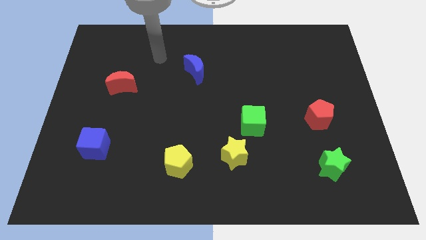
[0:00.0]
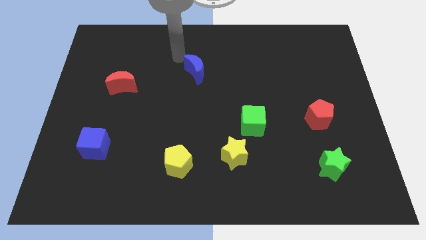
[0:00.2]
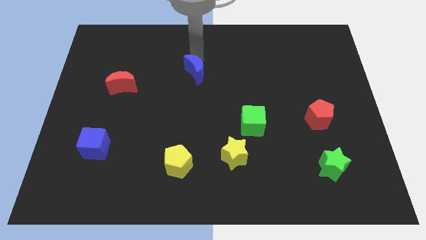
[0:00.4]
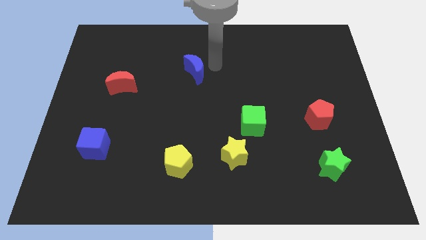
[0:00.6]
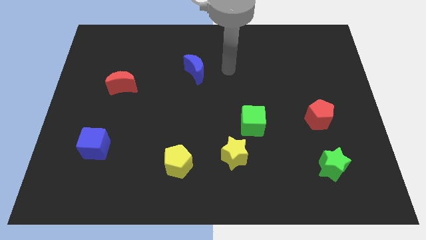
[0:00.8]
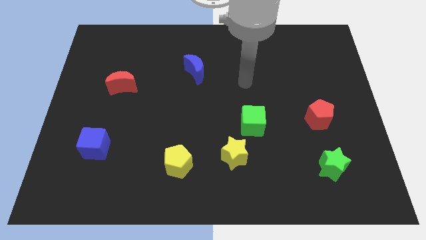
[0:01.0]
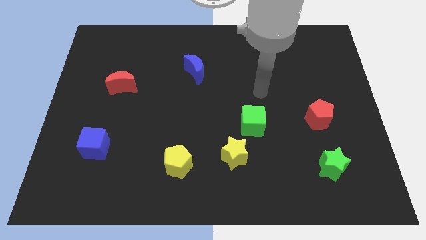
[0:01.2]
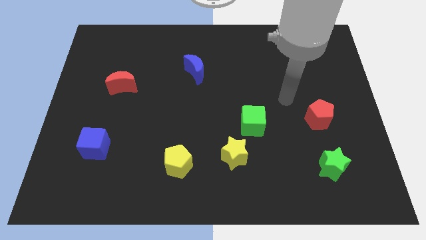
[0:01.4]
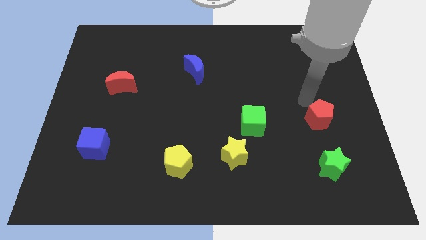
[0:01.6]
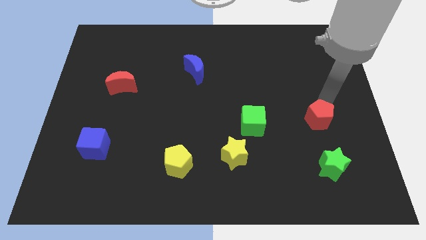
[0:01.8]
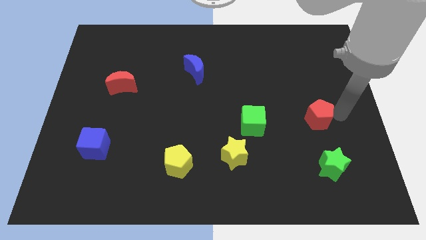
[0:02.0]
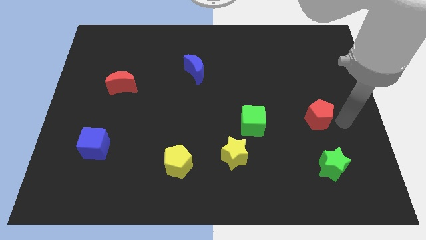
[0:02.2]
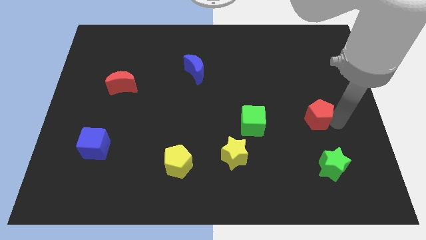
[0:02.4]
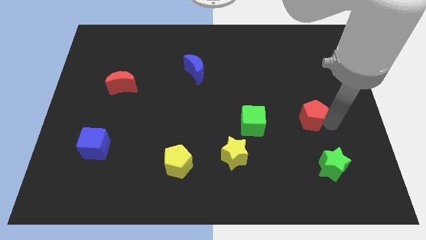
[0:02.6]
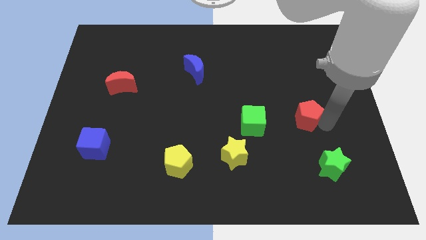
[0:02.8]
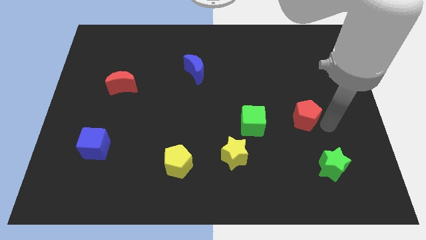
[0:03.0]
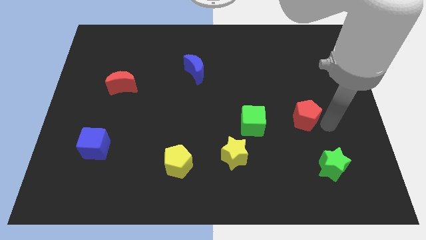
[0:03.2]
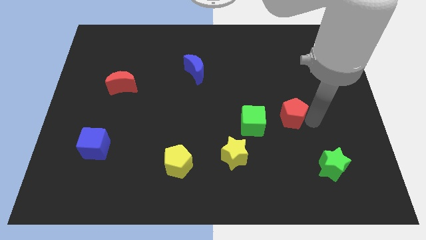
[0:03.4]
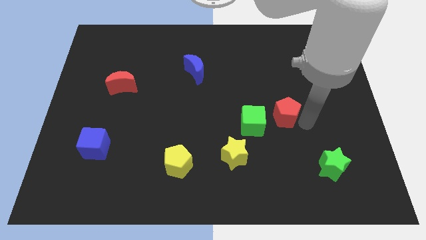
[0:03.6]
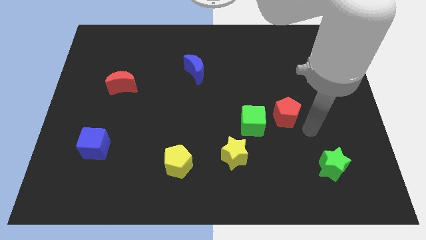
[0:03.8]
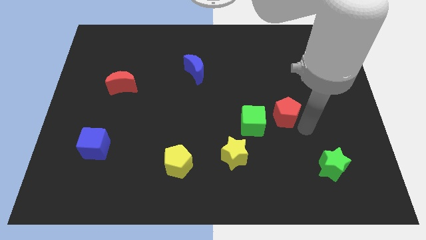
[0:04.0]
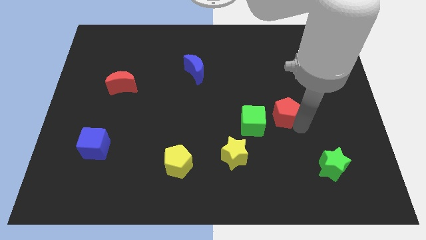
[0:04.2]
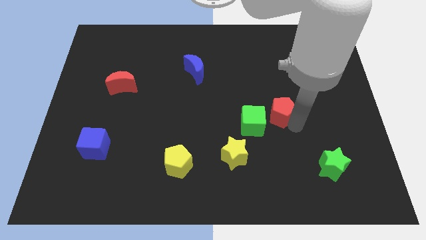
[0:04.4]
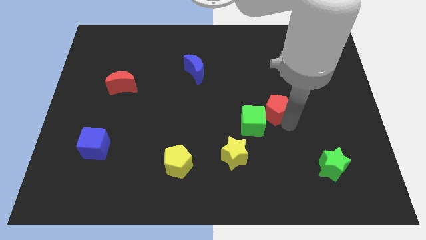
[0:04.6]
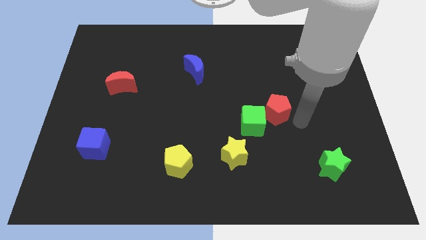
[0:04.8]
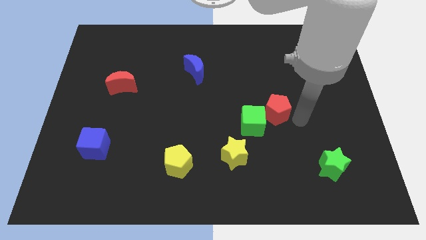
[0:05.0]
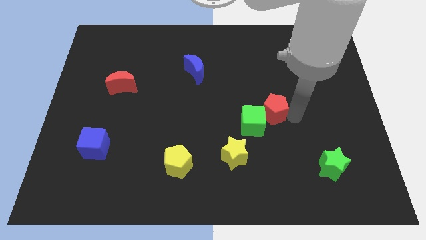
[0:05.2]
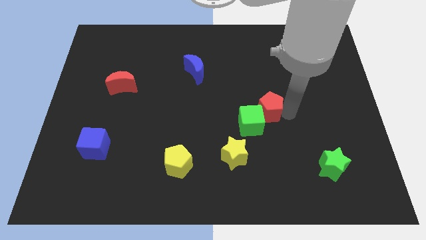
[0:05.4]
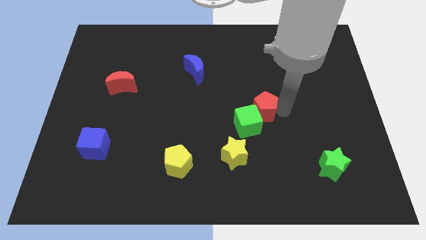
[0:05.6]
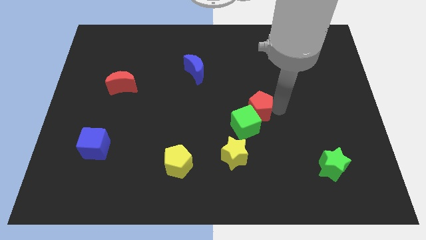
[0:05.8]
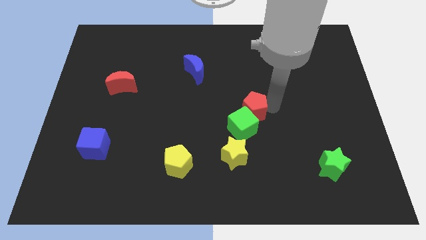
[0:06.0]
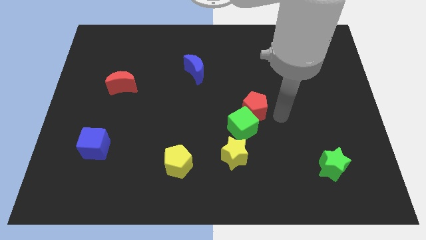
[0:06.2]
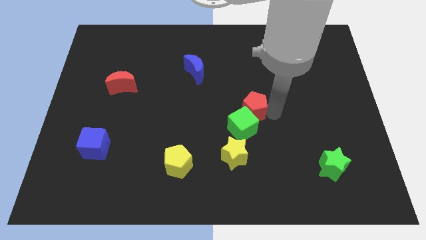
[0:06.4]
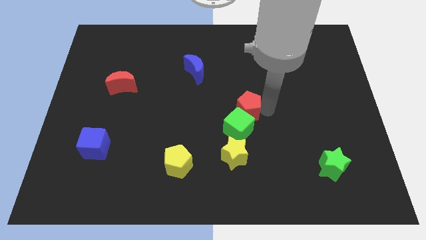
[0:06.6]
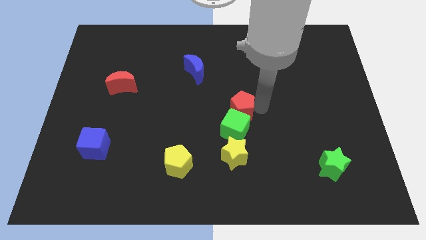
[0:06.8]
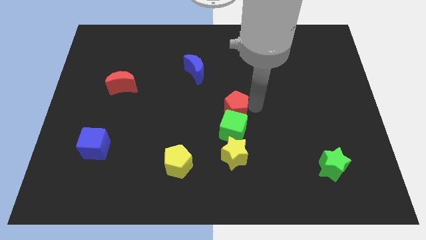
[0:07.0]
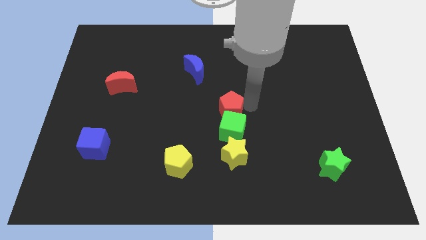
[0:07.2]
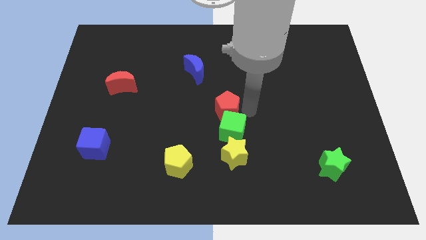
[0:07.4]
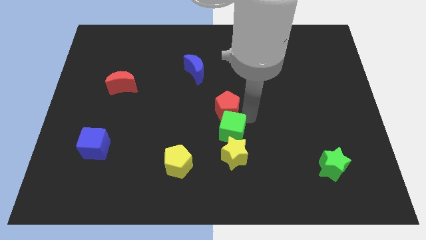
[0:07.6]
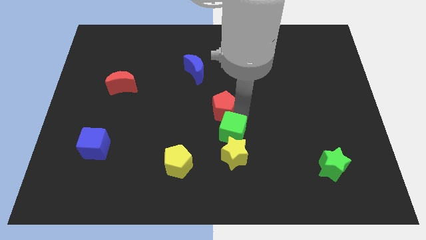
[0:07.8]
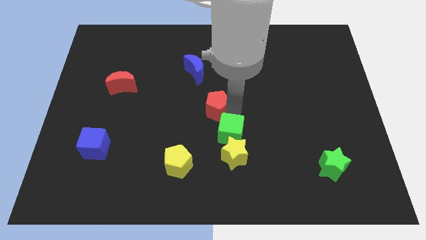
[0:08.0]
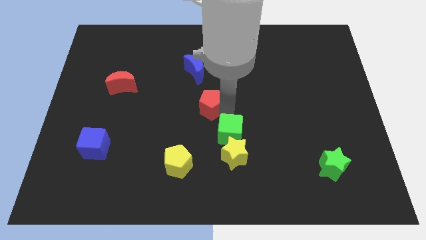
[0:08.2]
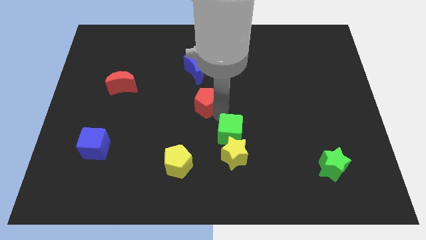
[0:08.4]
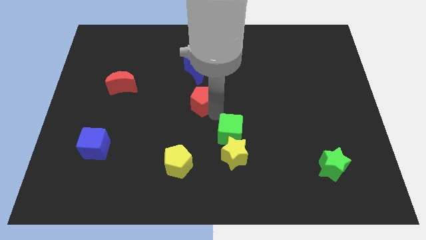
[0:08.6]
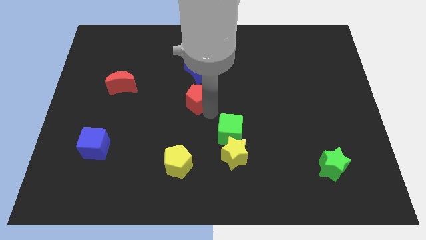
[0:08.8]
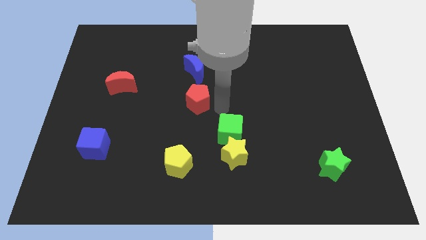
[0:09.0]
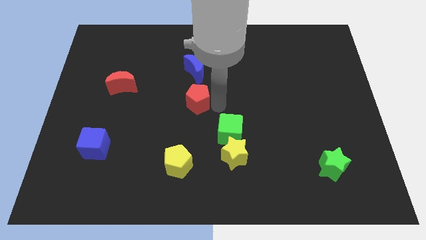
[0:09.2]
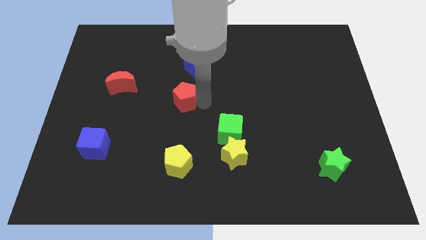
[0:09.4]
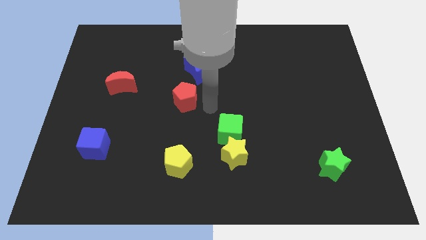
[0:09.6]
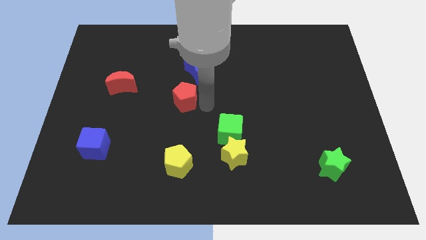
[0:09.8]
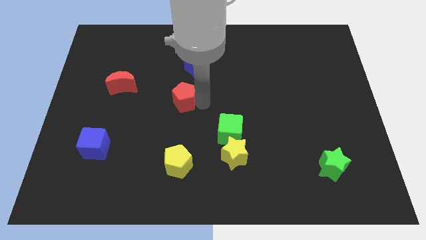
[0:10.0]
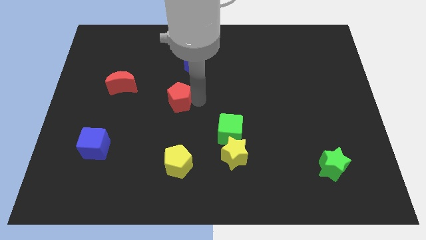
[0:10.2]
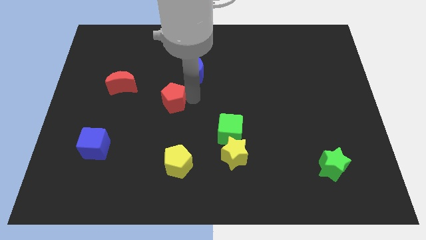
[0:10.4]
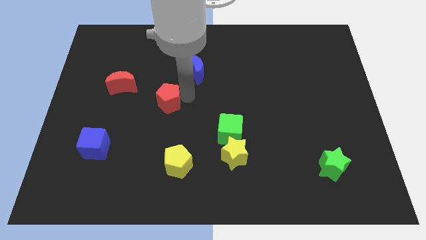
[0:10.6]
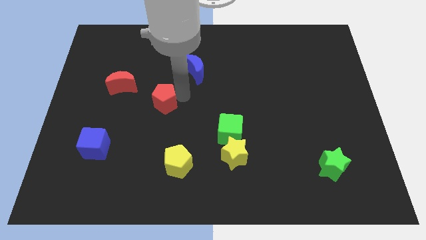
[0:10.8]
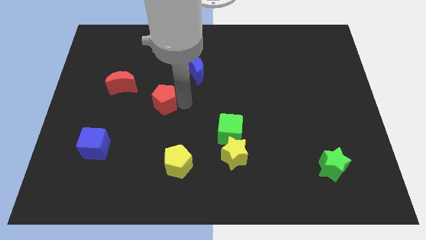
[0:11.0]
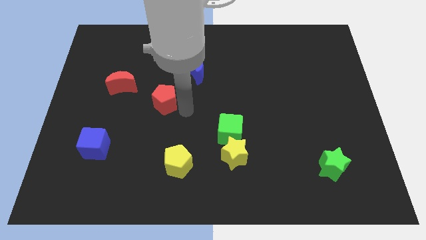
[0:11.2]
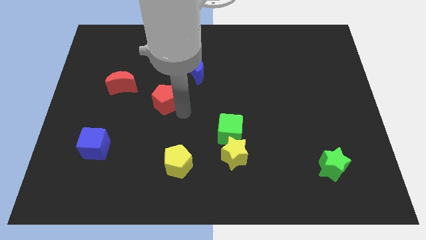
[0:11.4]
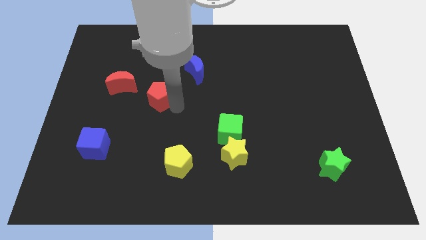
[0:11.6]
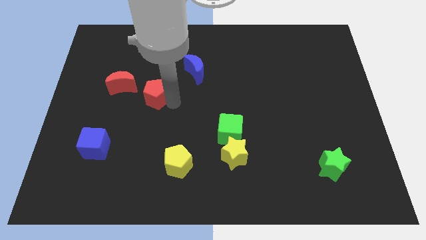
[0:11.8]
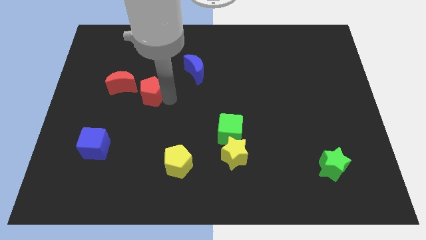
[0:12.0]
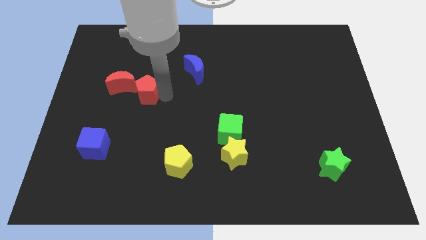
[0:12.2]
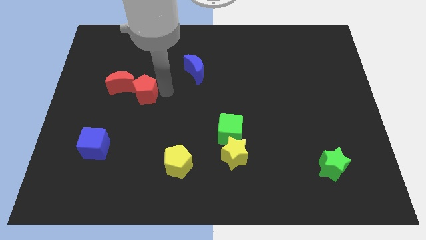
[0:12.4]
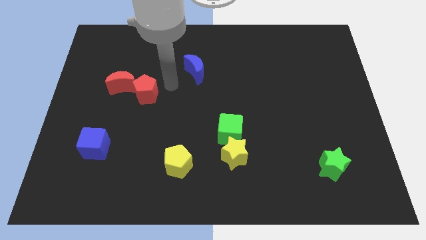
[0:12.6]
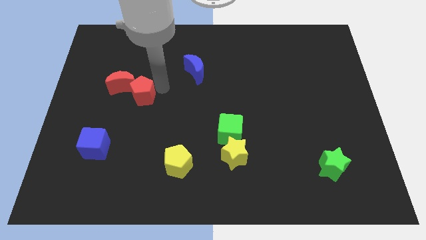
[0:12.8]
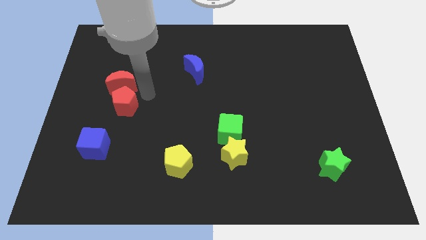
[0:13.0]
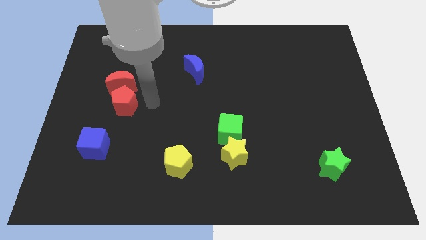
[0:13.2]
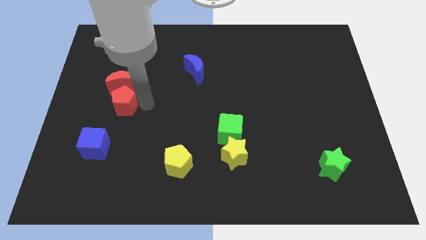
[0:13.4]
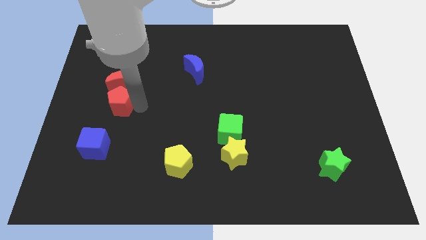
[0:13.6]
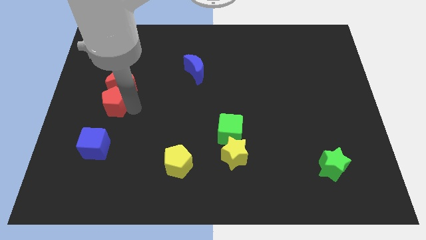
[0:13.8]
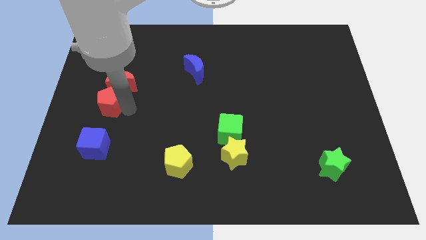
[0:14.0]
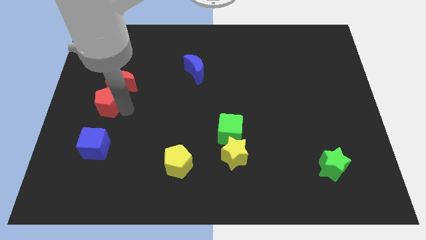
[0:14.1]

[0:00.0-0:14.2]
move the red pentagon to the center left
